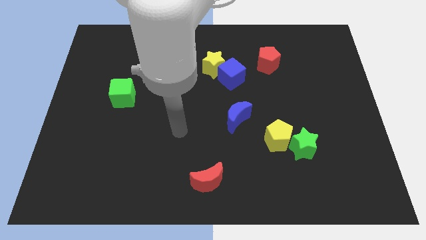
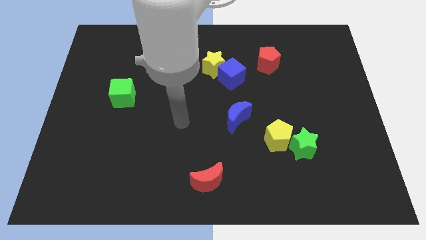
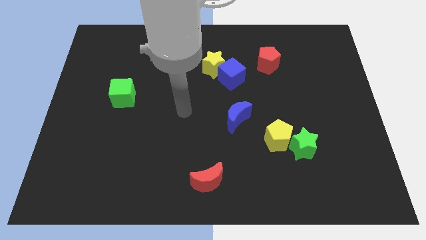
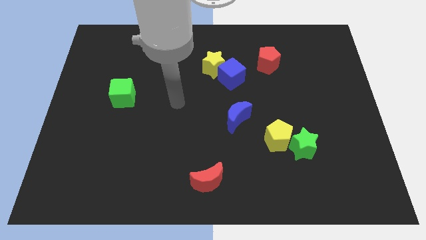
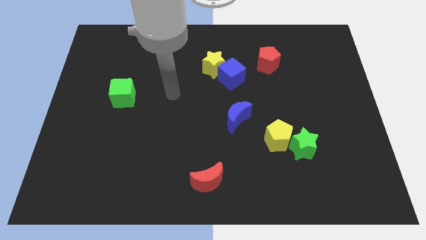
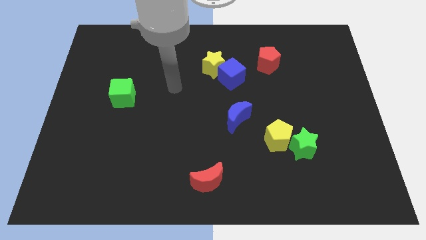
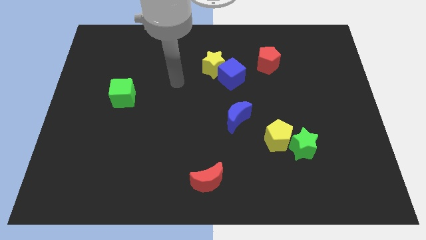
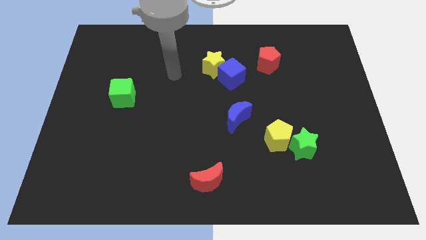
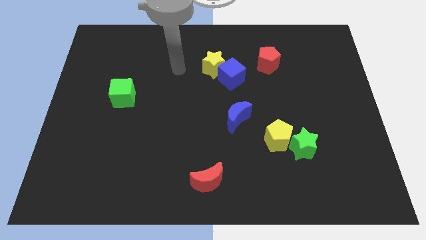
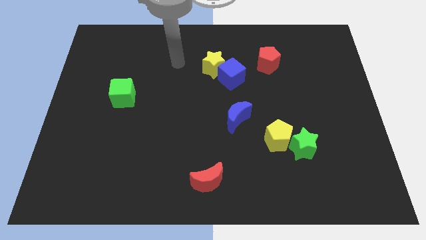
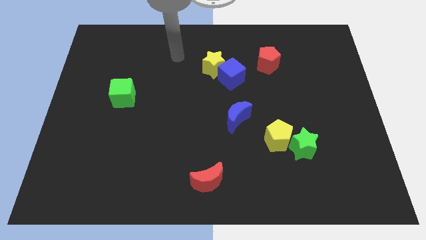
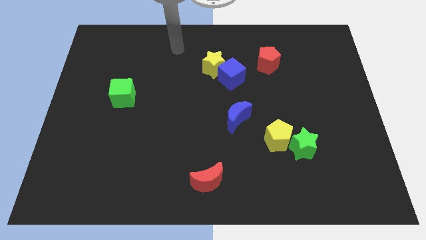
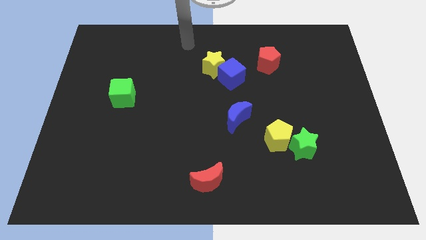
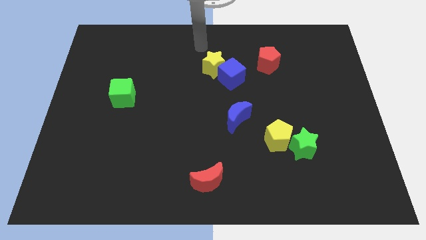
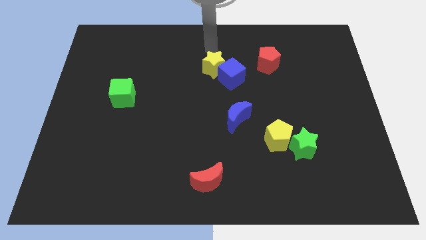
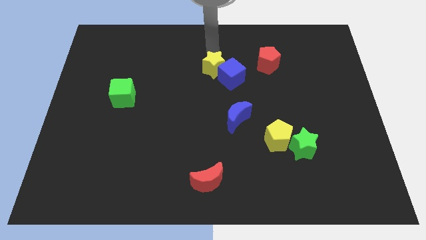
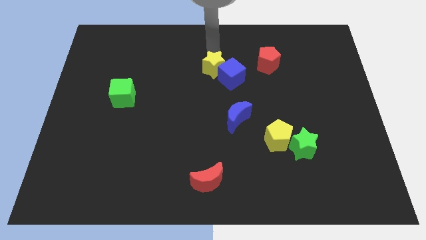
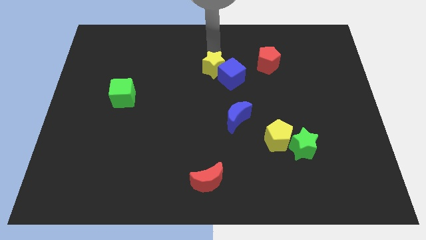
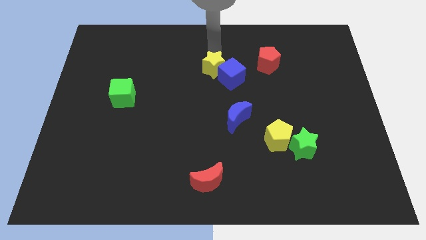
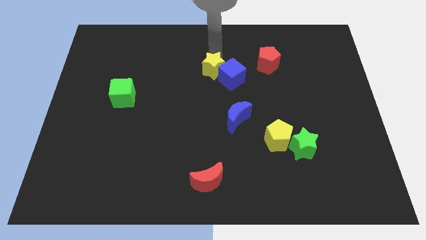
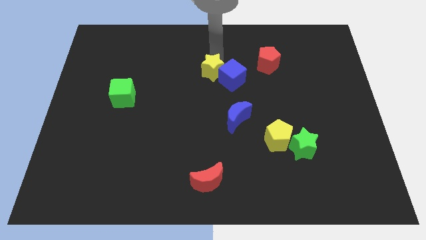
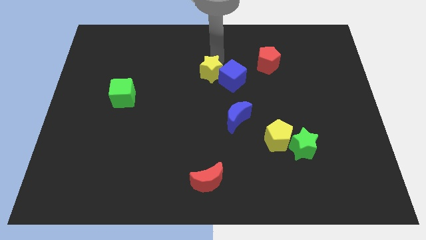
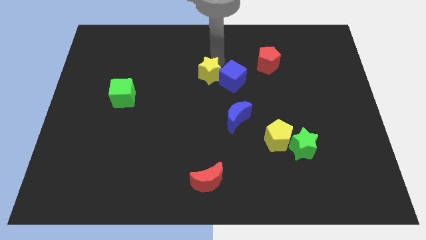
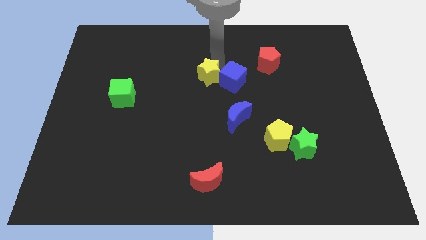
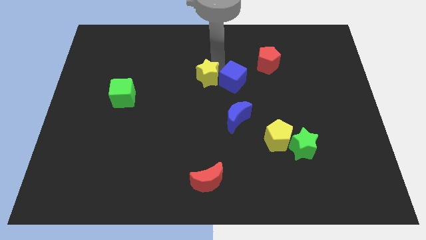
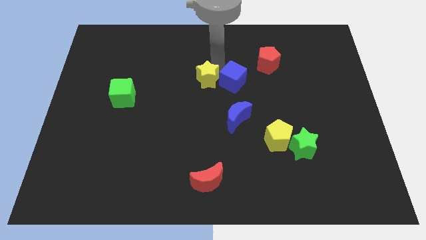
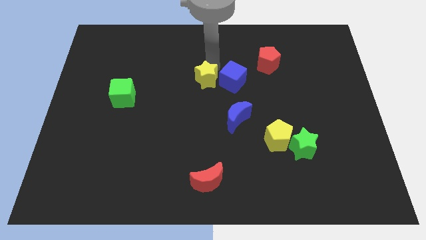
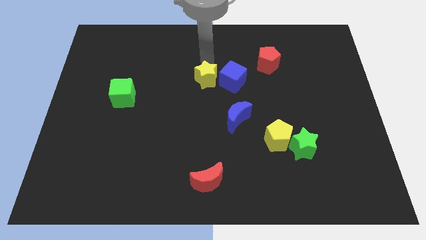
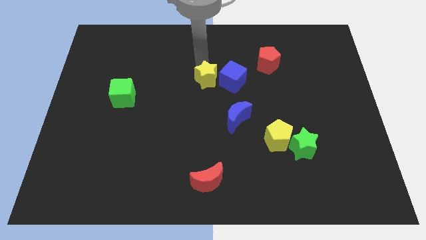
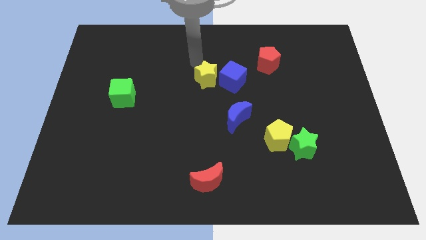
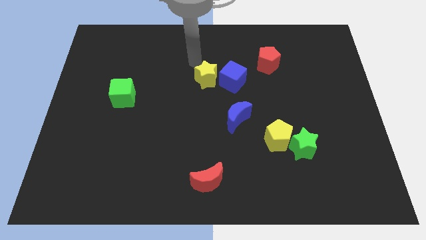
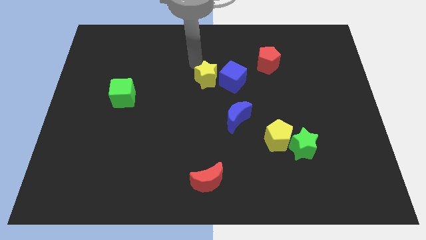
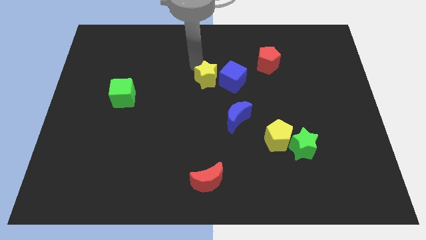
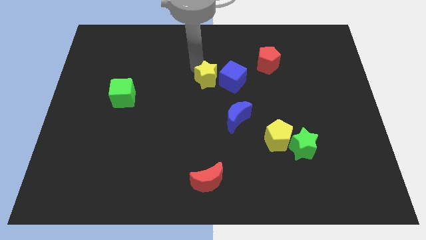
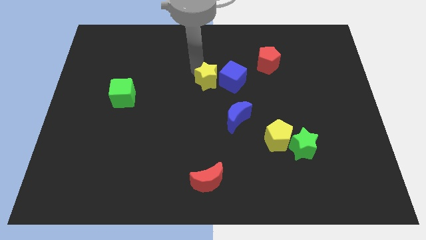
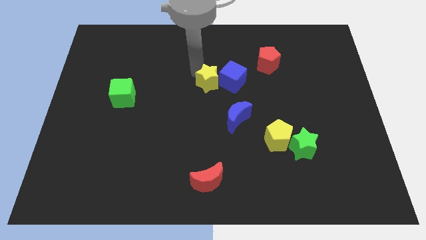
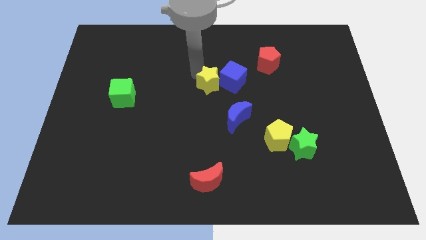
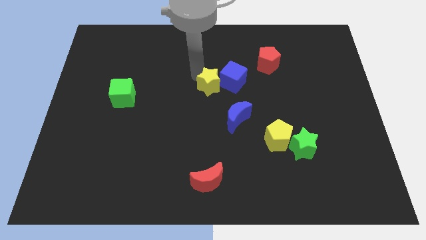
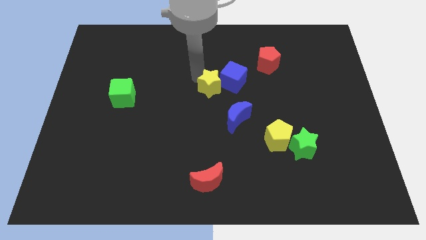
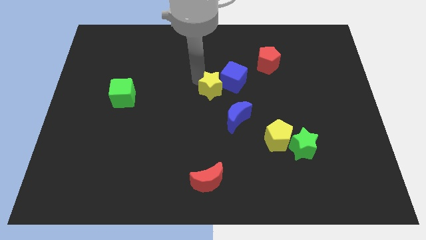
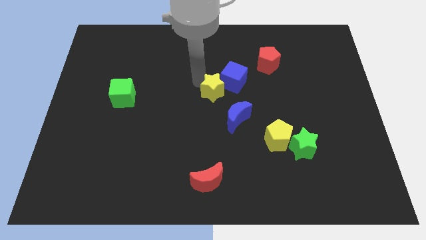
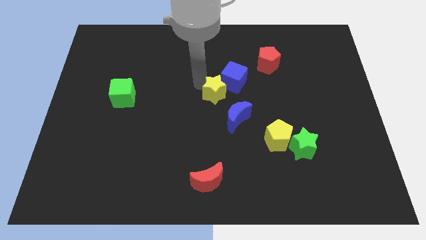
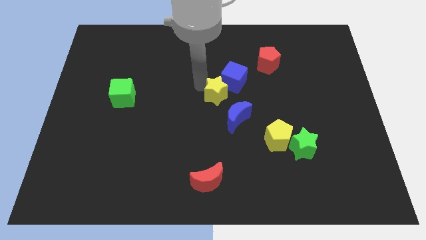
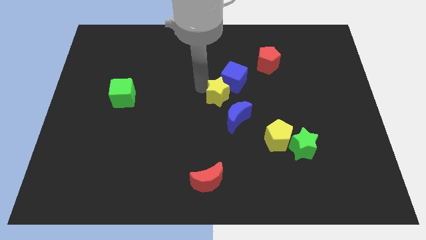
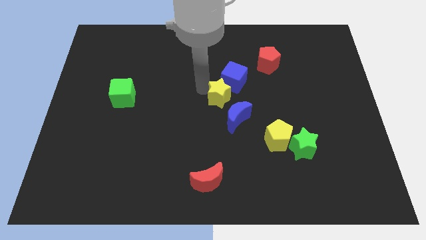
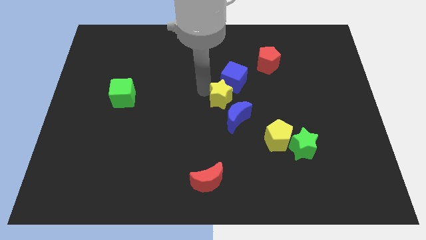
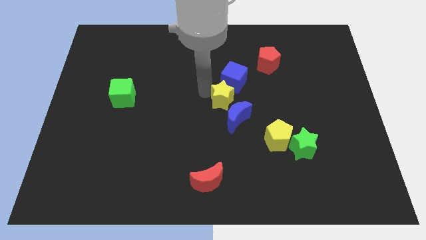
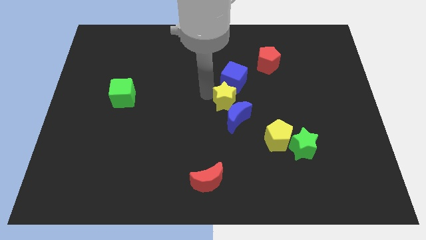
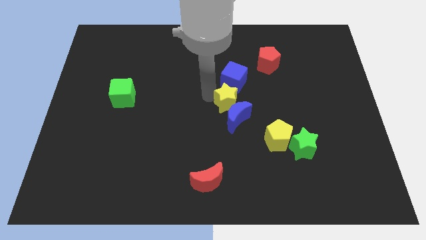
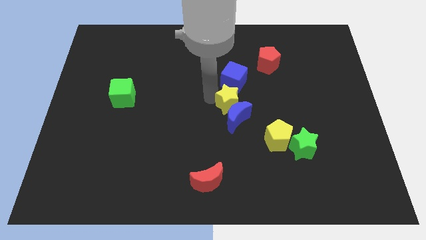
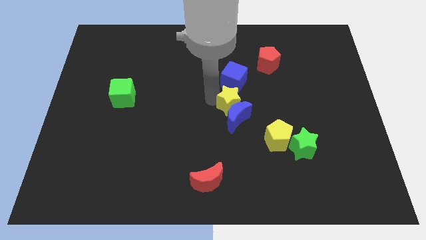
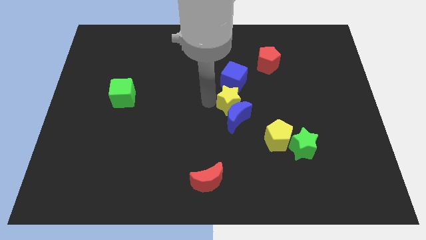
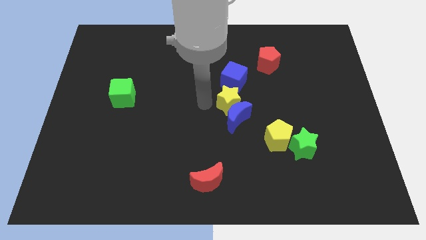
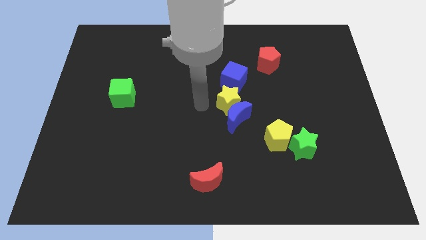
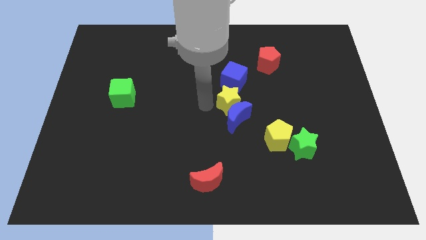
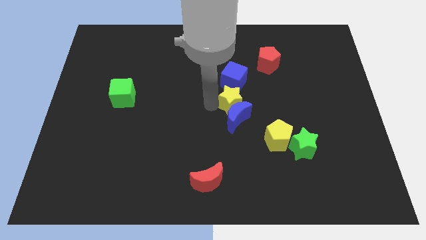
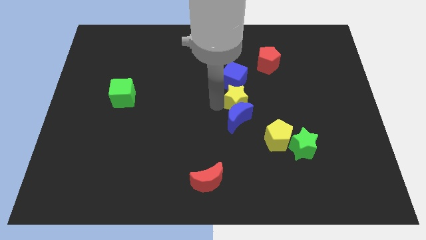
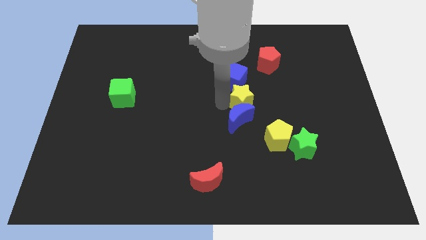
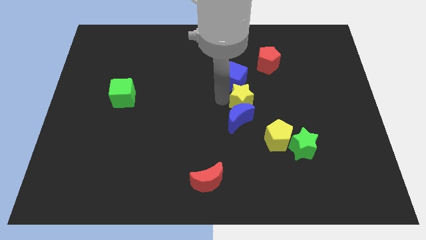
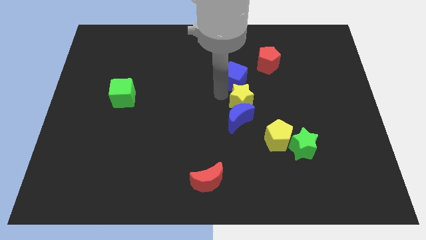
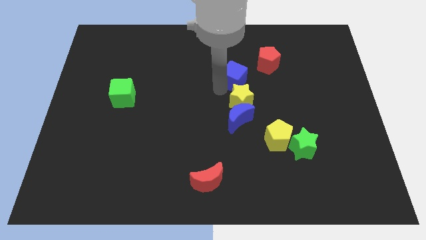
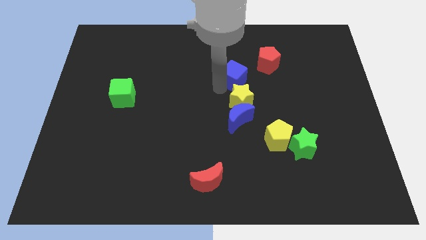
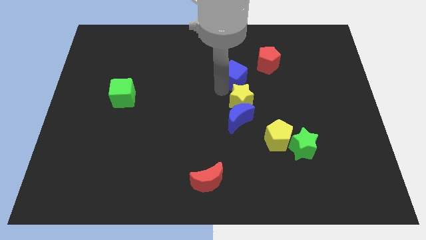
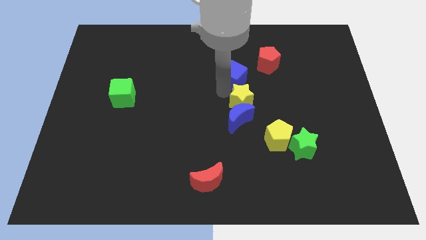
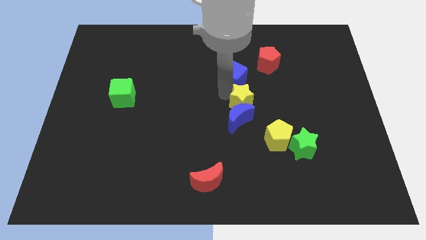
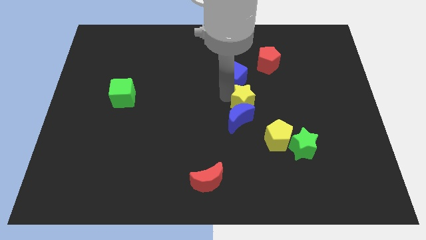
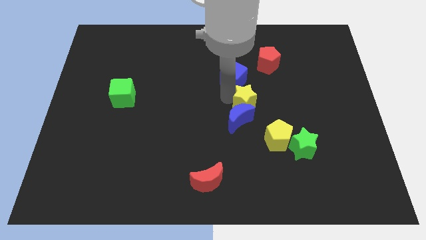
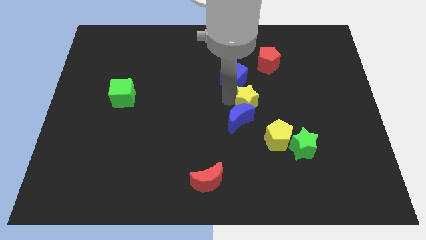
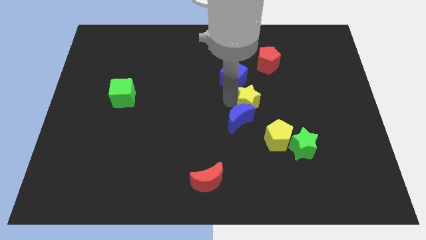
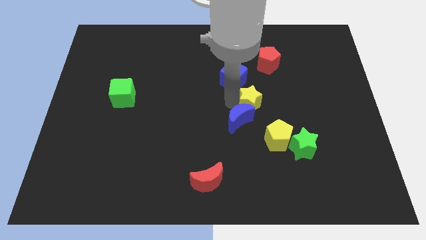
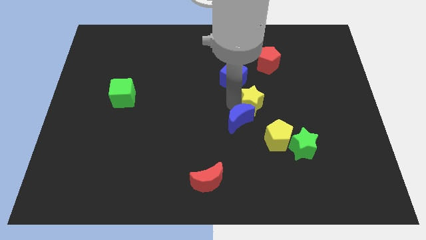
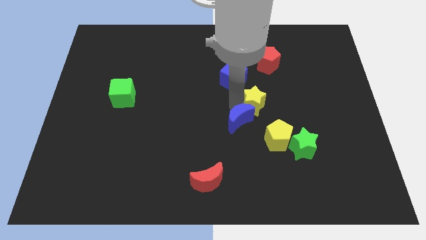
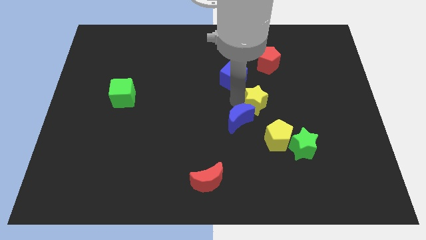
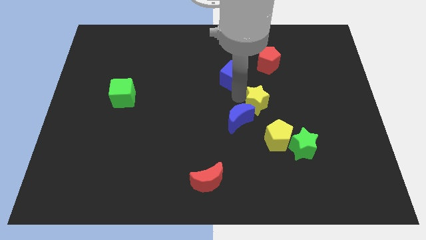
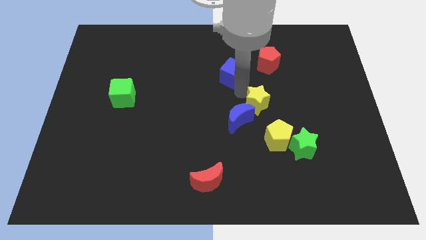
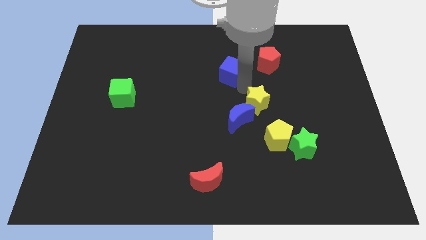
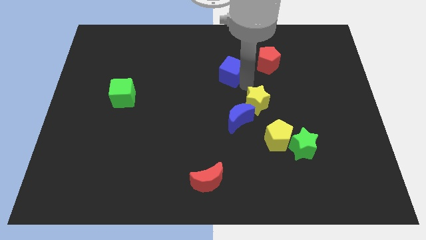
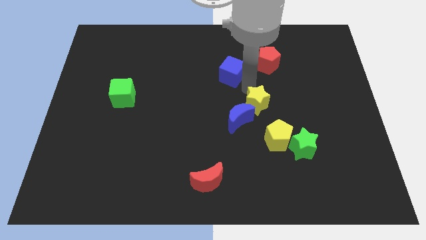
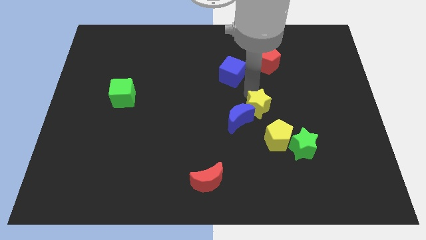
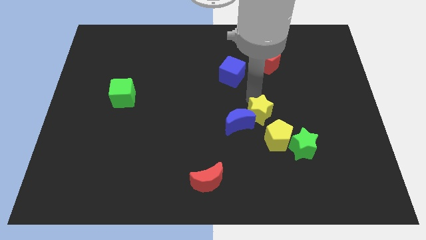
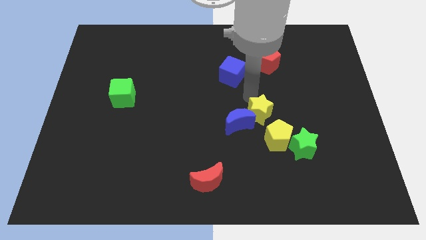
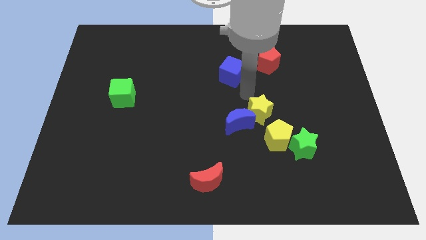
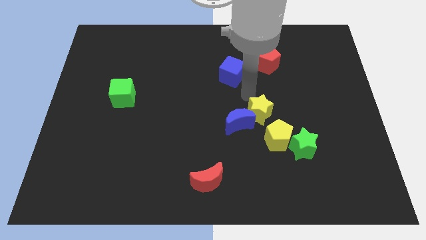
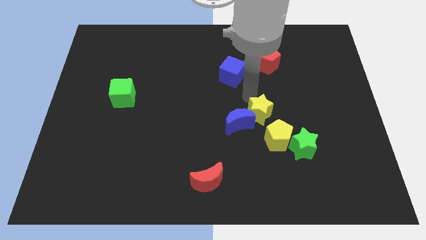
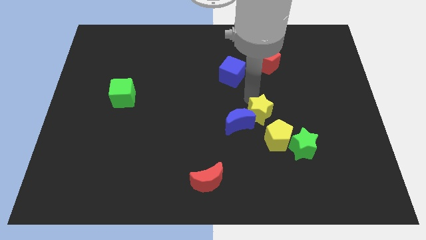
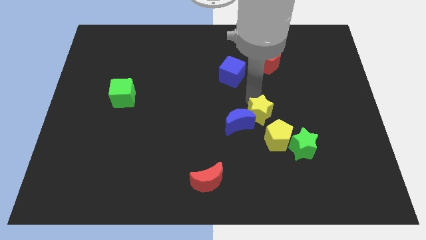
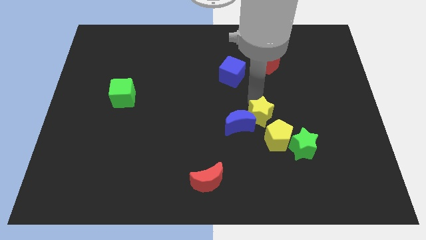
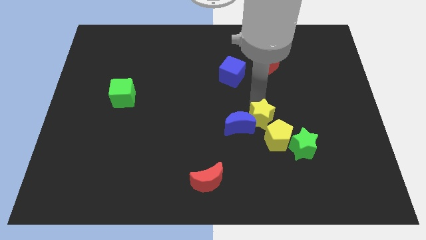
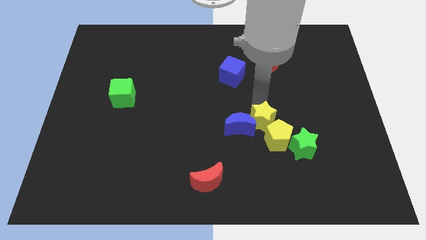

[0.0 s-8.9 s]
move the yellow star next to the yellow pentagon
